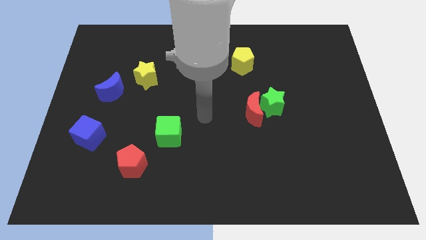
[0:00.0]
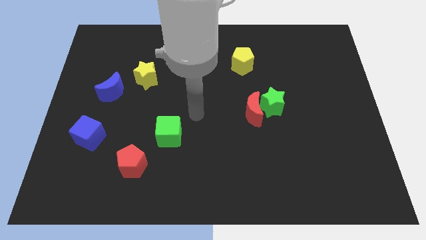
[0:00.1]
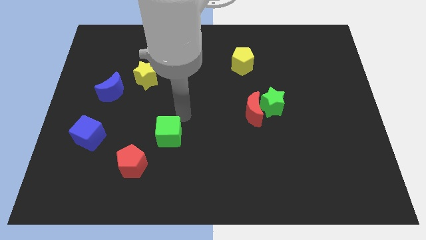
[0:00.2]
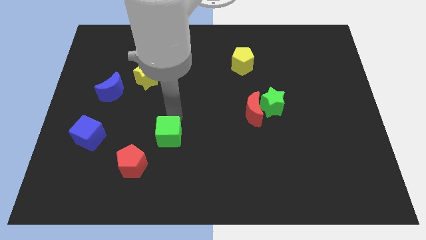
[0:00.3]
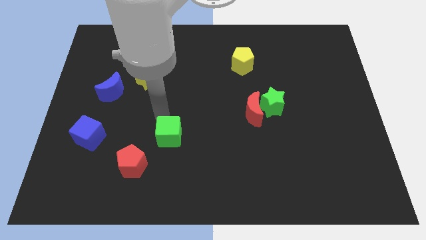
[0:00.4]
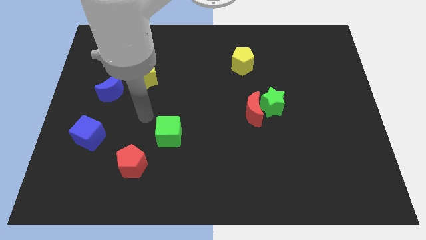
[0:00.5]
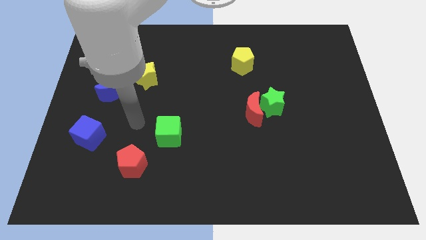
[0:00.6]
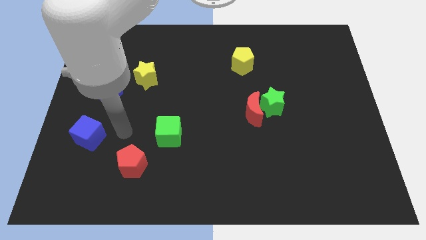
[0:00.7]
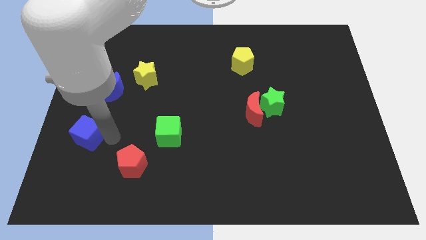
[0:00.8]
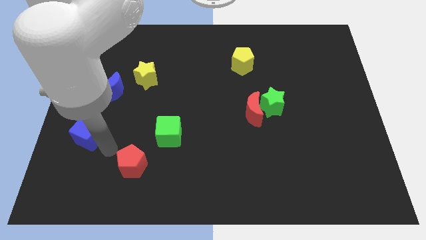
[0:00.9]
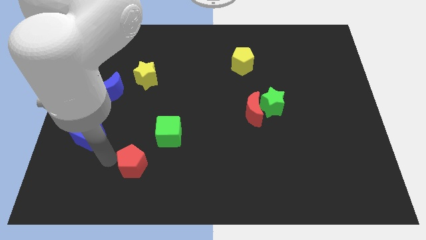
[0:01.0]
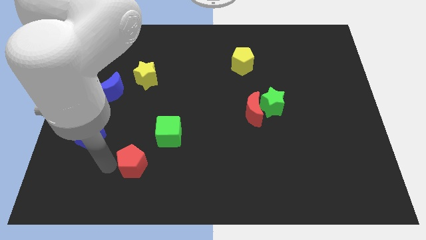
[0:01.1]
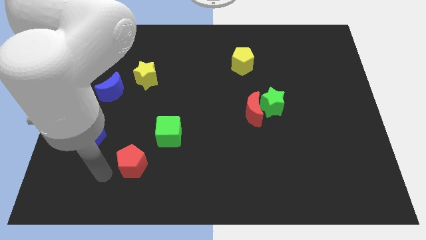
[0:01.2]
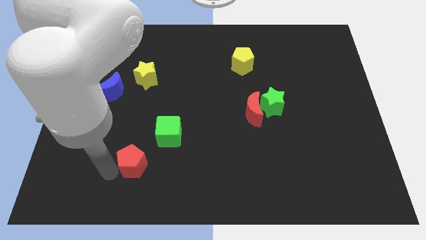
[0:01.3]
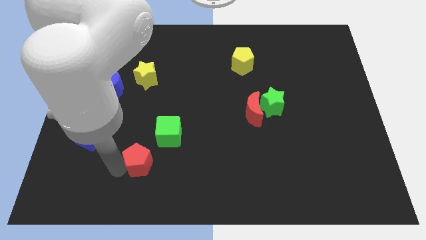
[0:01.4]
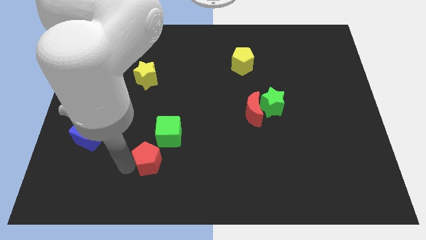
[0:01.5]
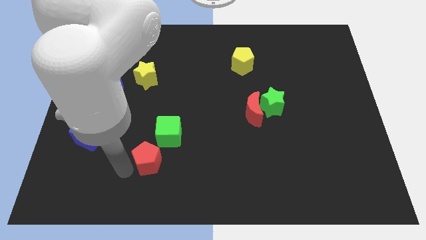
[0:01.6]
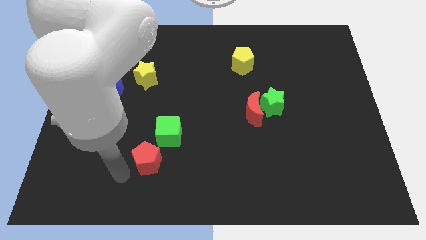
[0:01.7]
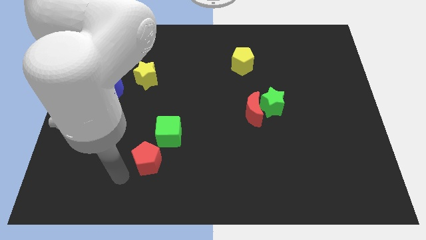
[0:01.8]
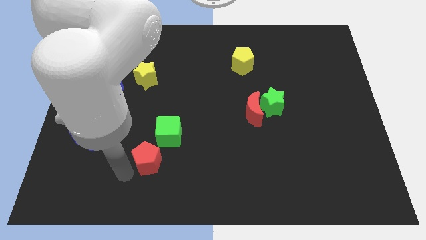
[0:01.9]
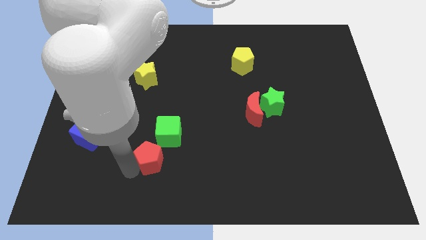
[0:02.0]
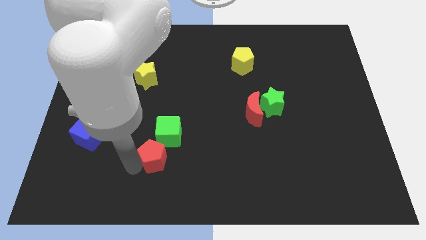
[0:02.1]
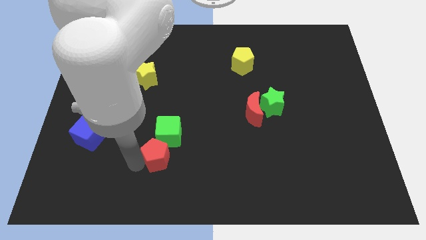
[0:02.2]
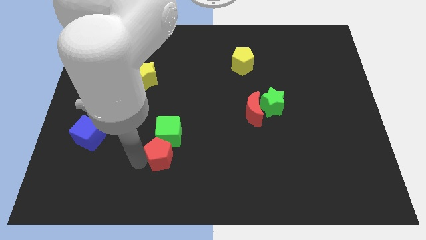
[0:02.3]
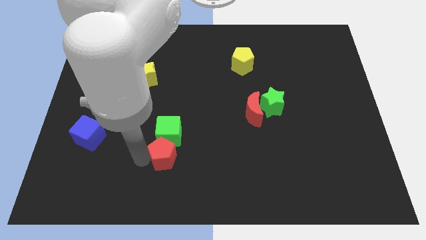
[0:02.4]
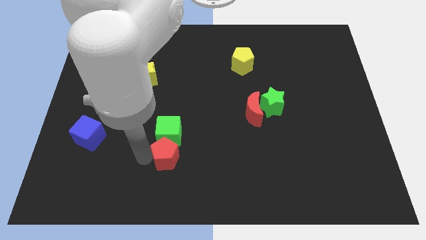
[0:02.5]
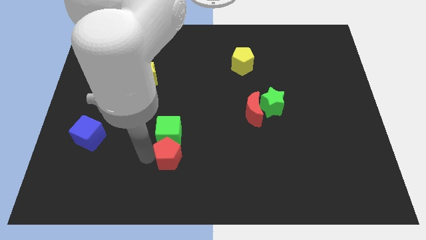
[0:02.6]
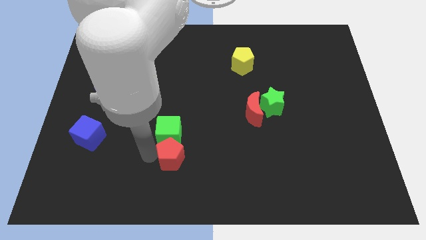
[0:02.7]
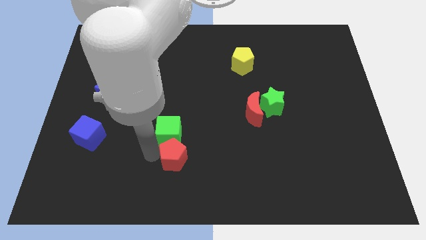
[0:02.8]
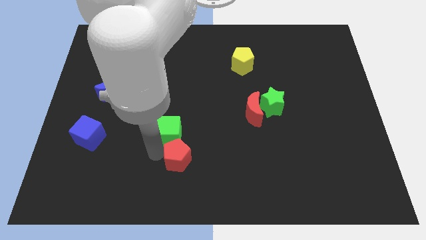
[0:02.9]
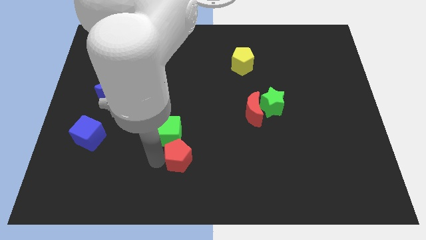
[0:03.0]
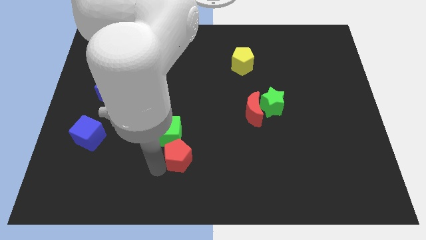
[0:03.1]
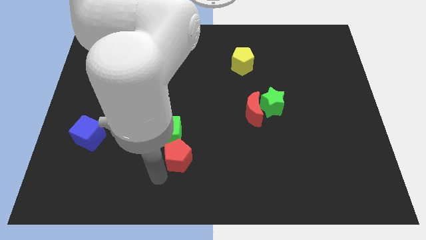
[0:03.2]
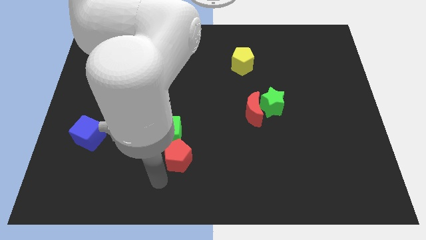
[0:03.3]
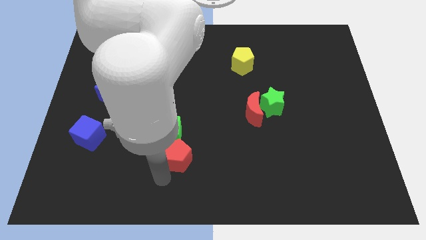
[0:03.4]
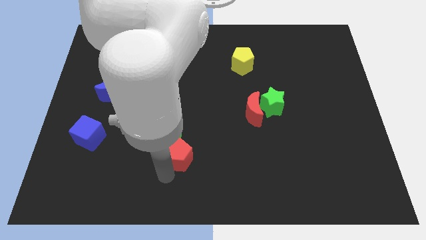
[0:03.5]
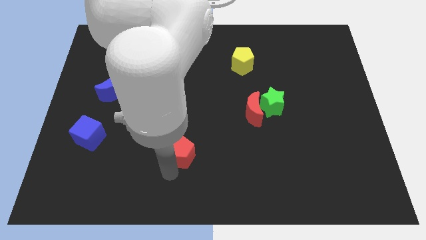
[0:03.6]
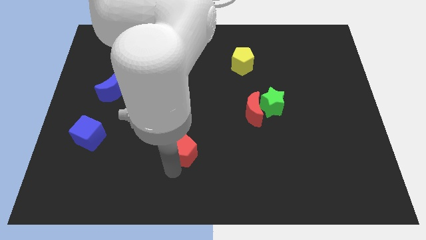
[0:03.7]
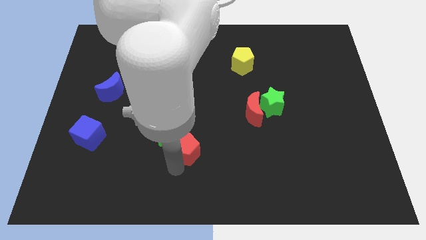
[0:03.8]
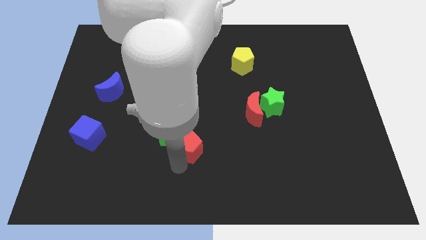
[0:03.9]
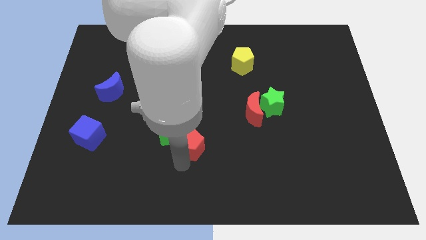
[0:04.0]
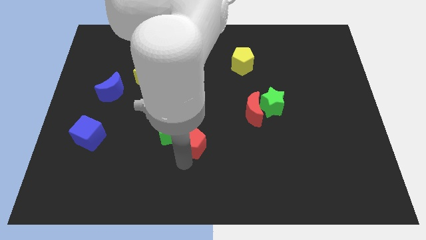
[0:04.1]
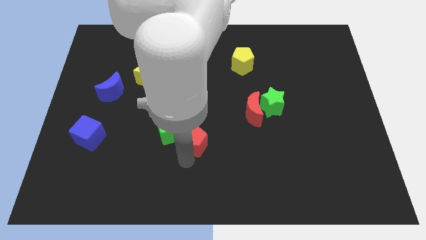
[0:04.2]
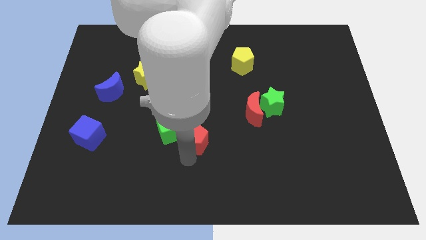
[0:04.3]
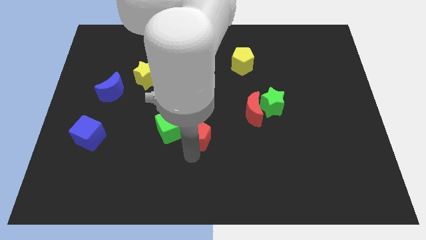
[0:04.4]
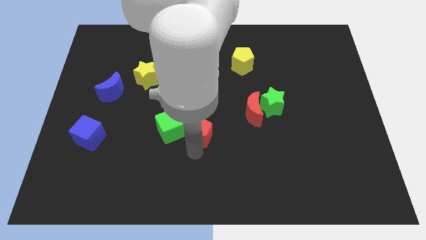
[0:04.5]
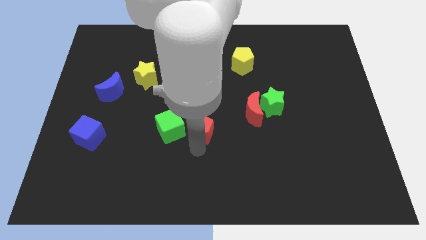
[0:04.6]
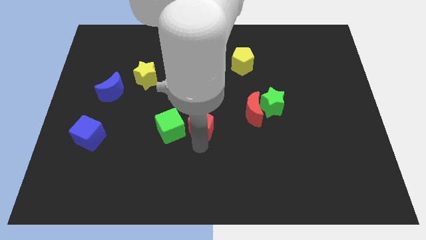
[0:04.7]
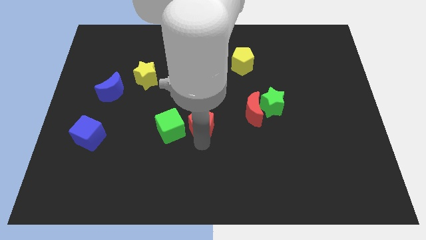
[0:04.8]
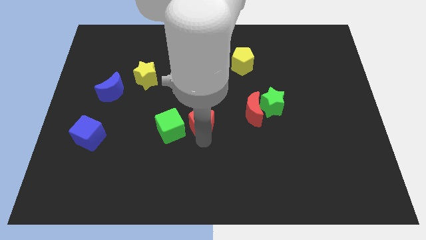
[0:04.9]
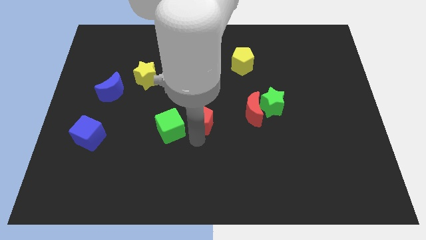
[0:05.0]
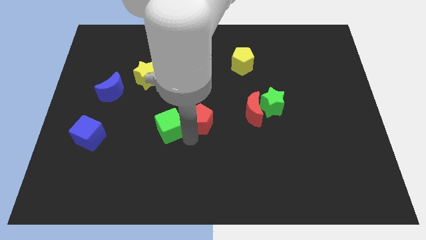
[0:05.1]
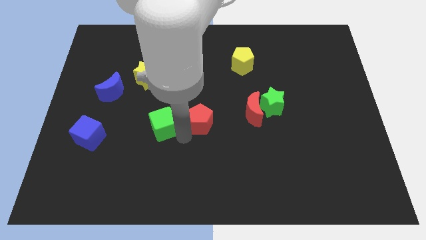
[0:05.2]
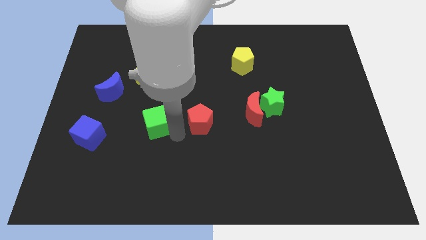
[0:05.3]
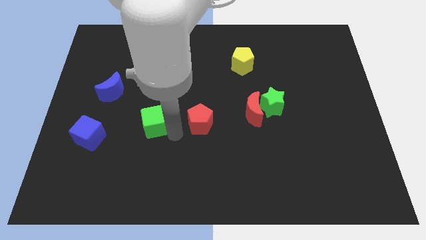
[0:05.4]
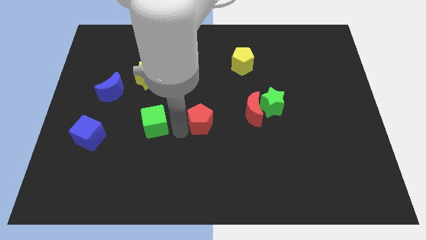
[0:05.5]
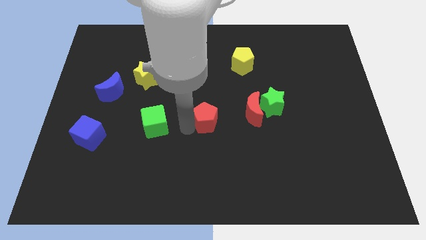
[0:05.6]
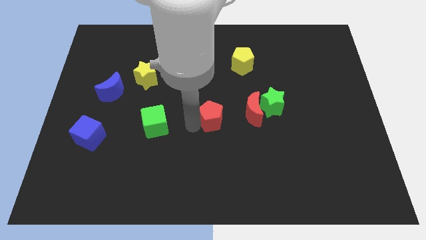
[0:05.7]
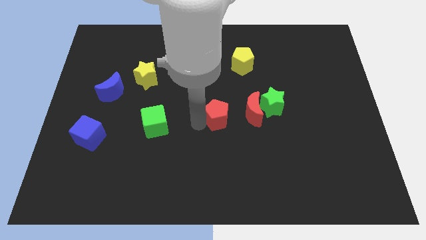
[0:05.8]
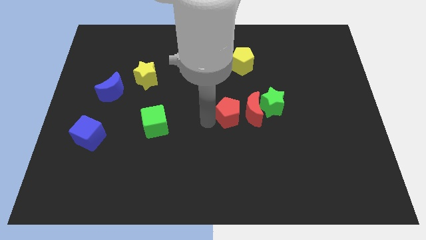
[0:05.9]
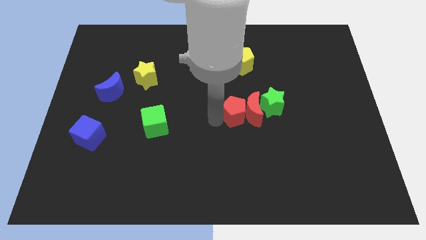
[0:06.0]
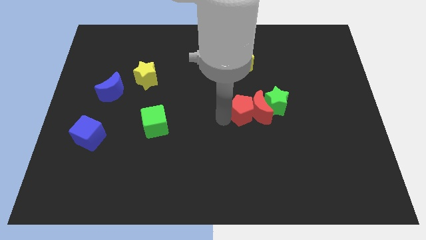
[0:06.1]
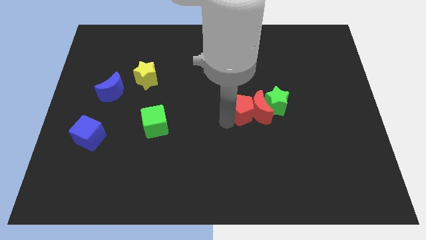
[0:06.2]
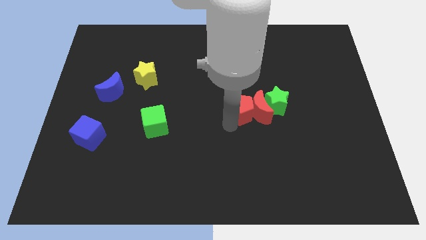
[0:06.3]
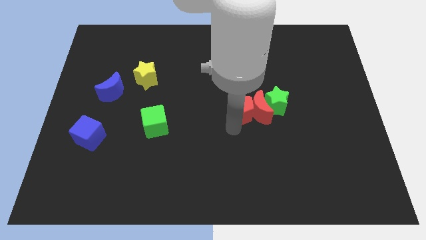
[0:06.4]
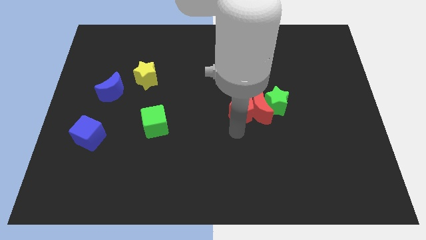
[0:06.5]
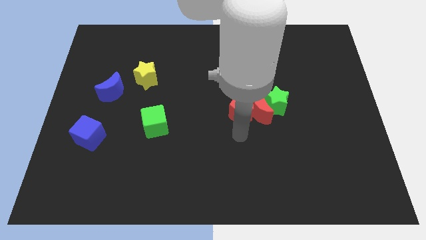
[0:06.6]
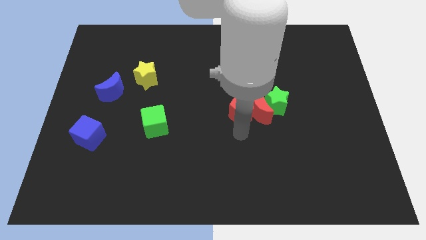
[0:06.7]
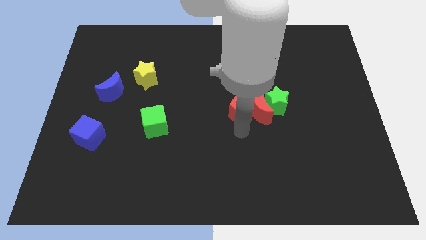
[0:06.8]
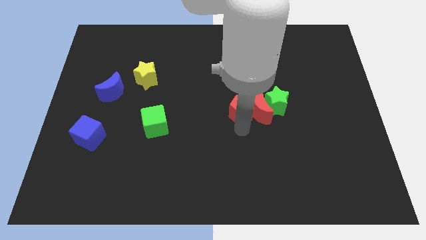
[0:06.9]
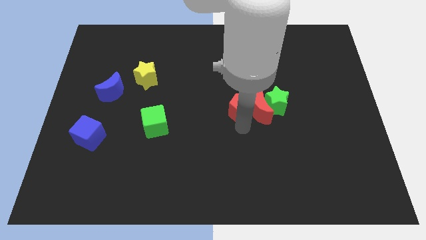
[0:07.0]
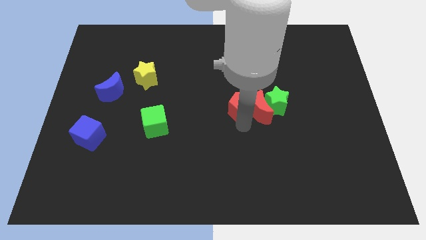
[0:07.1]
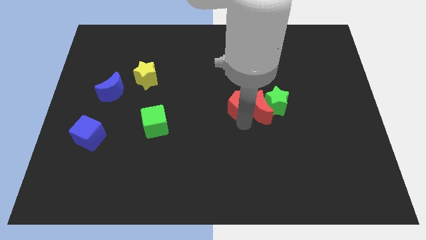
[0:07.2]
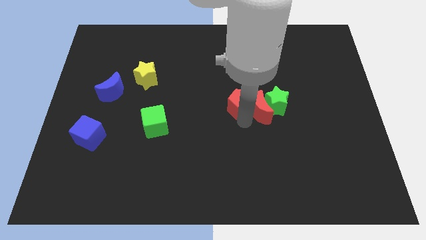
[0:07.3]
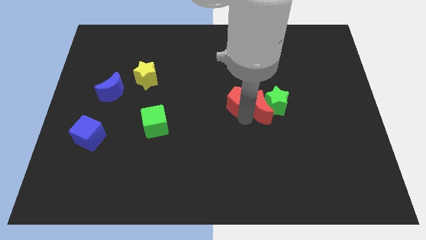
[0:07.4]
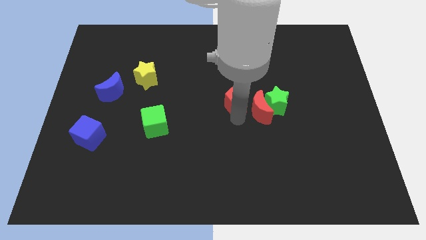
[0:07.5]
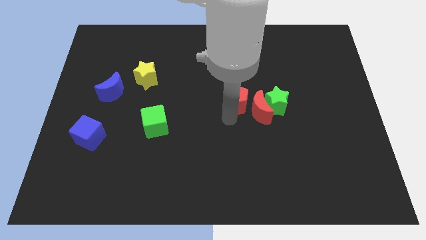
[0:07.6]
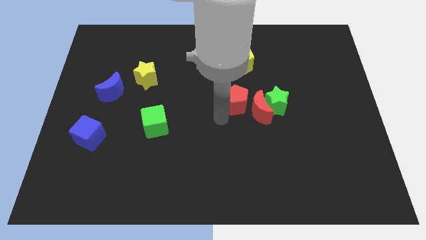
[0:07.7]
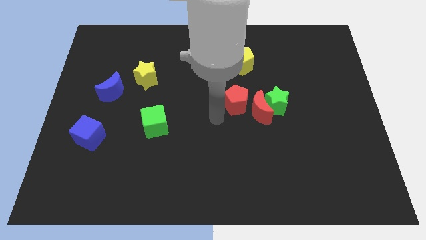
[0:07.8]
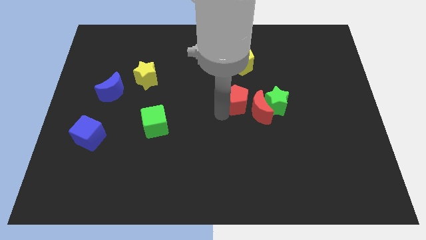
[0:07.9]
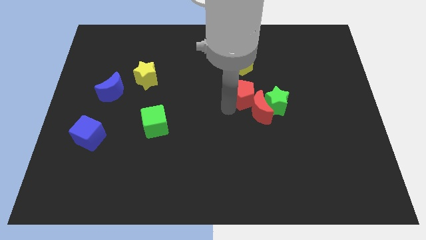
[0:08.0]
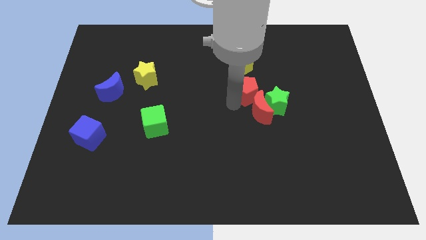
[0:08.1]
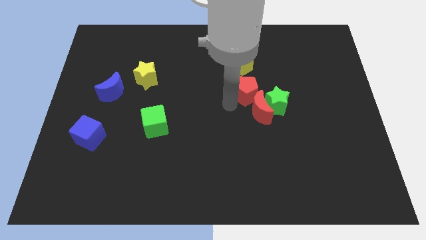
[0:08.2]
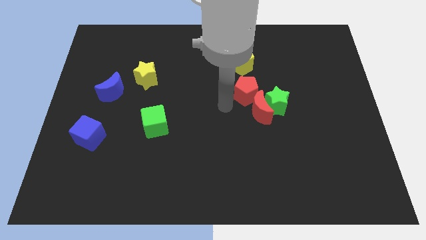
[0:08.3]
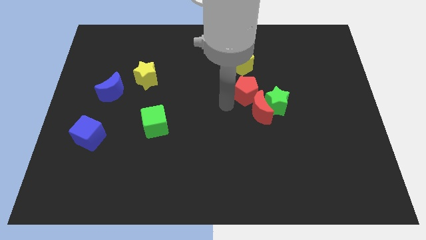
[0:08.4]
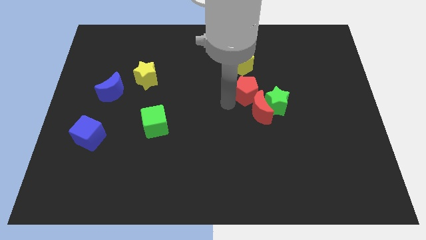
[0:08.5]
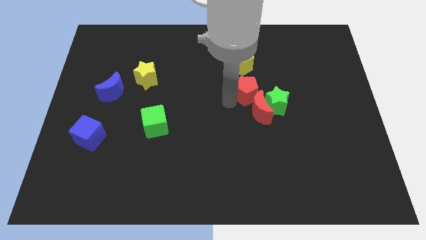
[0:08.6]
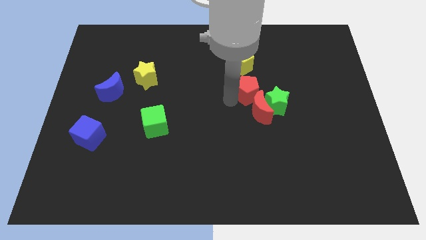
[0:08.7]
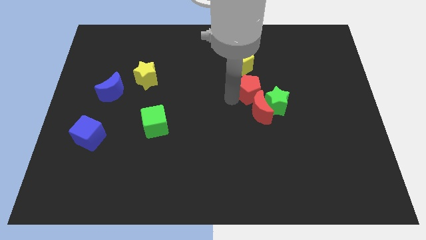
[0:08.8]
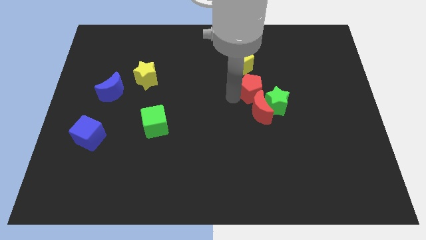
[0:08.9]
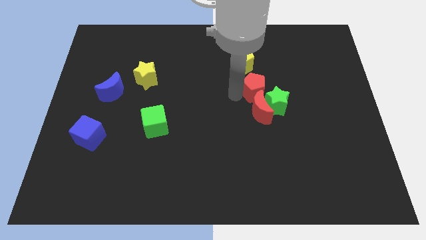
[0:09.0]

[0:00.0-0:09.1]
put the red pentagon to the top of the green star
